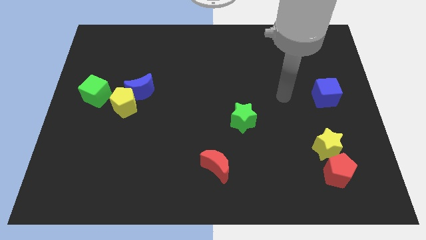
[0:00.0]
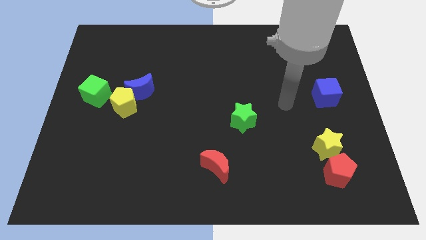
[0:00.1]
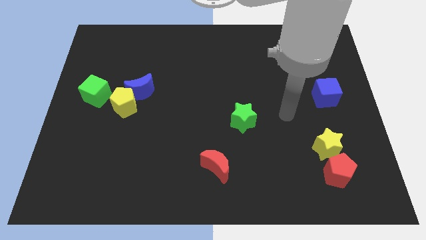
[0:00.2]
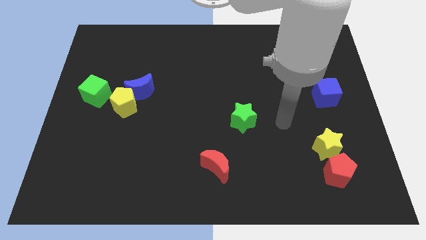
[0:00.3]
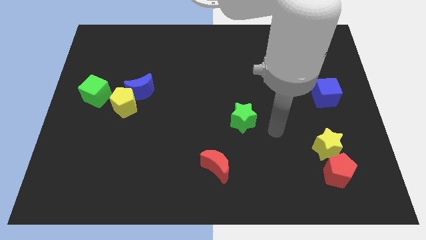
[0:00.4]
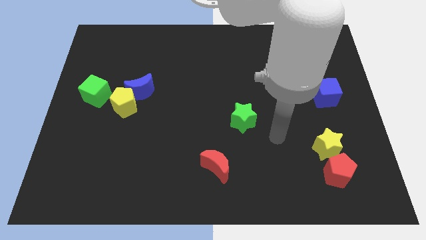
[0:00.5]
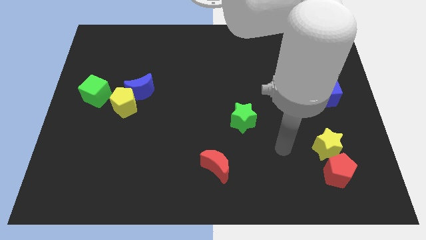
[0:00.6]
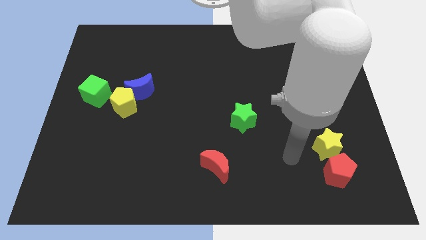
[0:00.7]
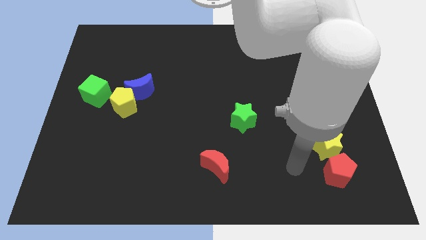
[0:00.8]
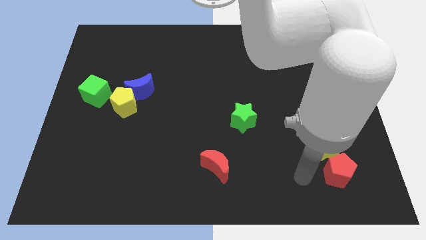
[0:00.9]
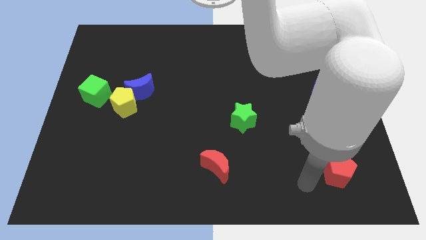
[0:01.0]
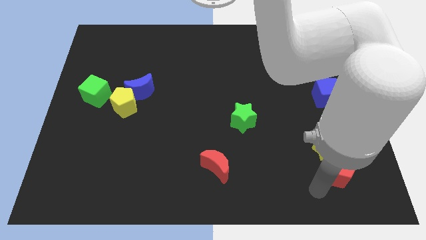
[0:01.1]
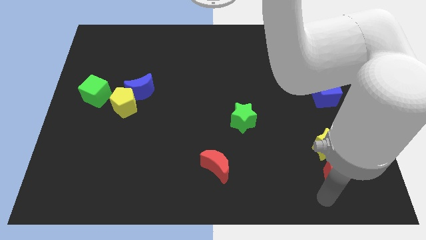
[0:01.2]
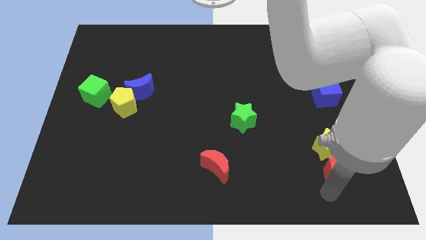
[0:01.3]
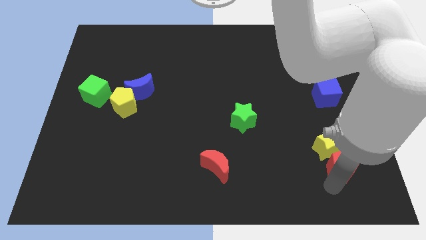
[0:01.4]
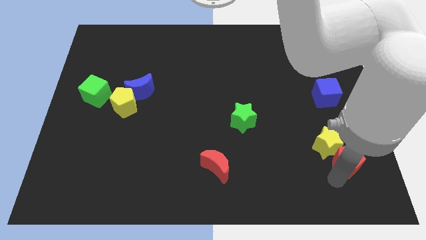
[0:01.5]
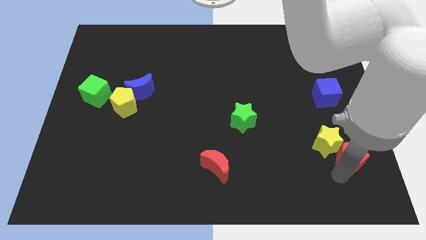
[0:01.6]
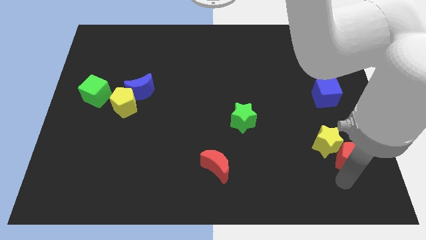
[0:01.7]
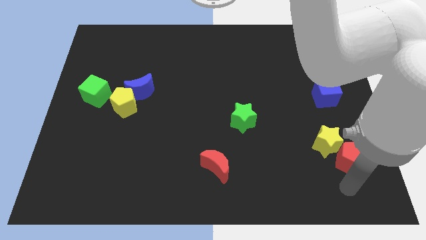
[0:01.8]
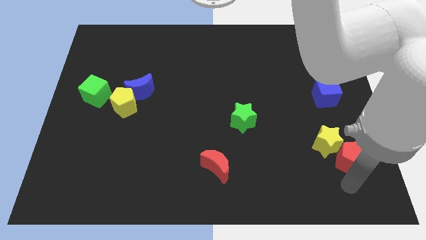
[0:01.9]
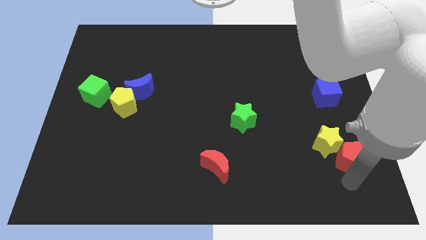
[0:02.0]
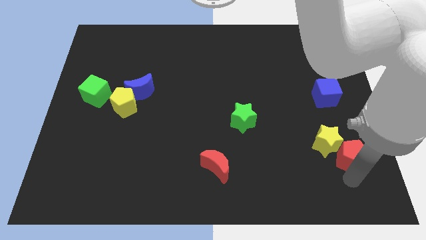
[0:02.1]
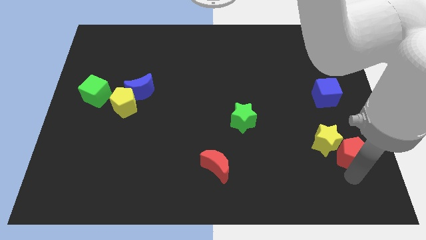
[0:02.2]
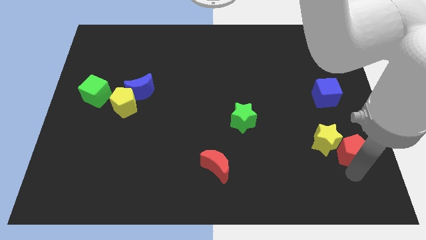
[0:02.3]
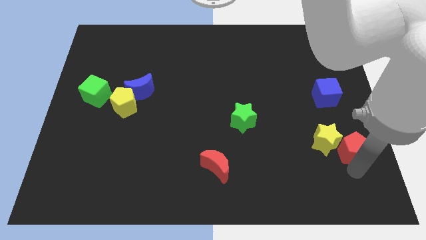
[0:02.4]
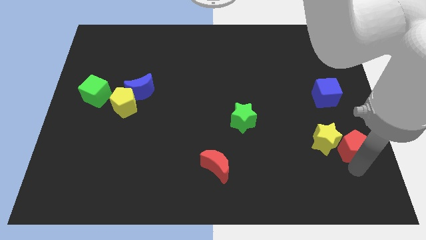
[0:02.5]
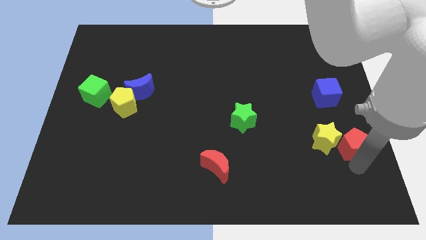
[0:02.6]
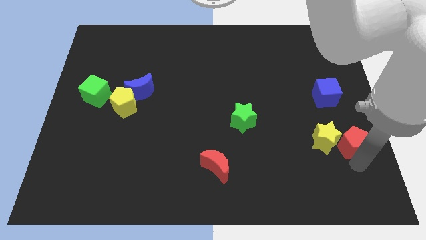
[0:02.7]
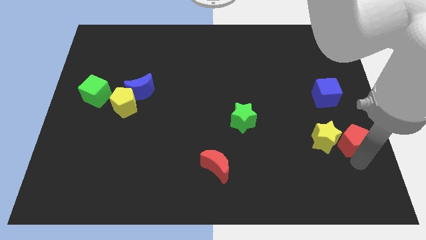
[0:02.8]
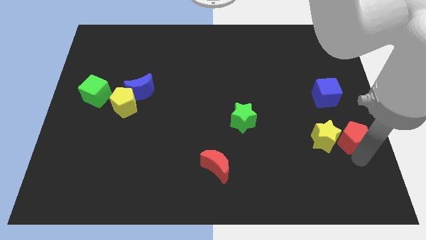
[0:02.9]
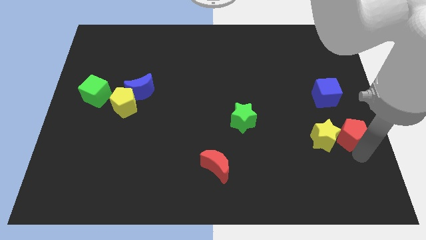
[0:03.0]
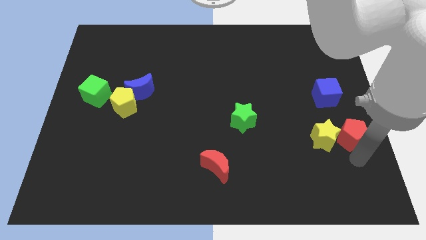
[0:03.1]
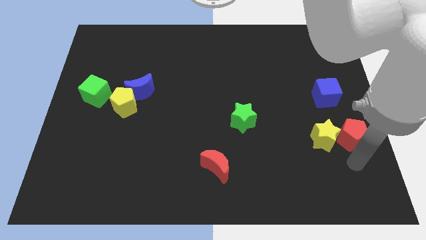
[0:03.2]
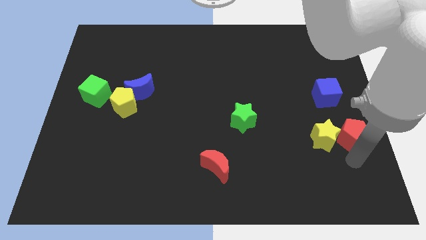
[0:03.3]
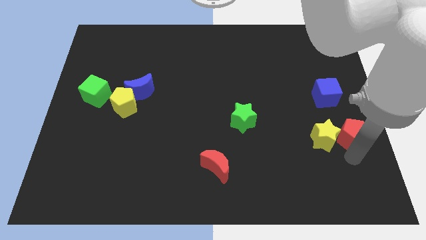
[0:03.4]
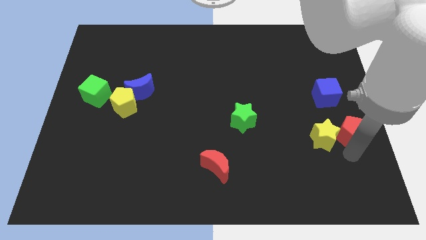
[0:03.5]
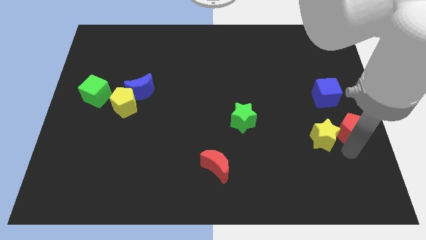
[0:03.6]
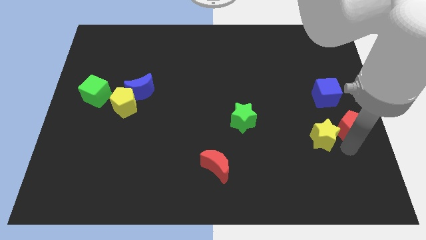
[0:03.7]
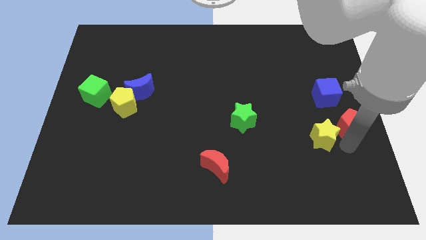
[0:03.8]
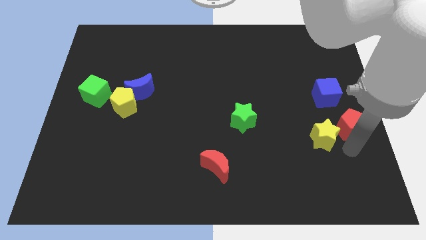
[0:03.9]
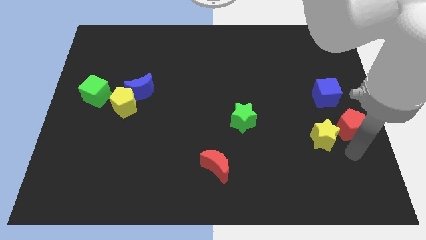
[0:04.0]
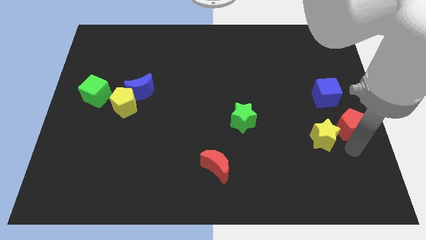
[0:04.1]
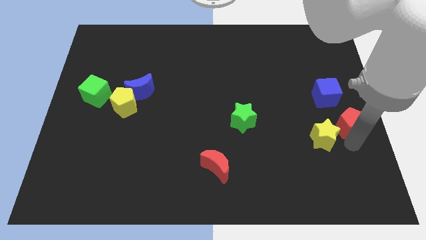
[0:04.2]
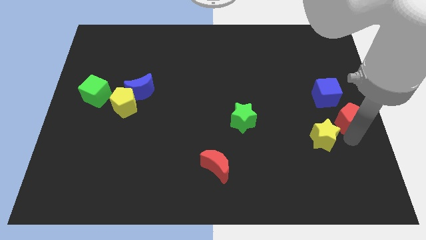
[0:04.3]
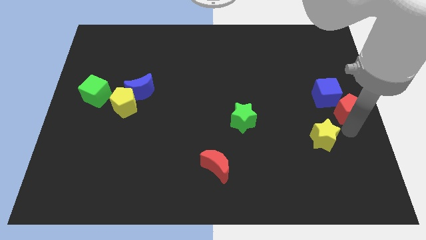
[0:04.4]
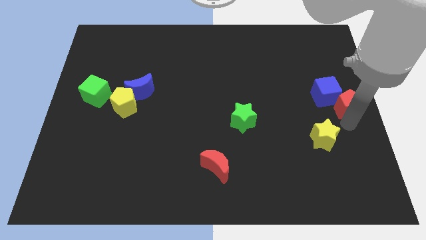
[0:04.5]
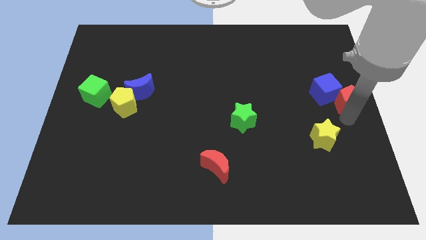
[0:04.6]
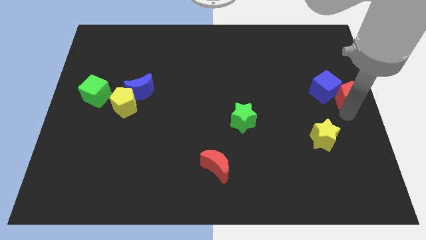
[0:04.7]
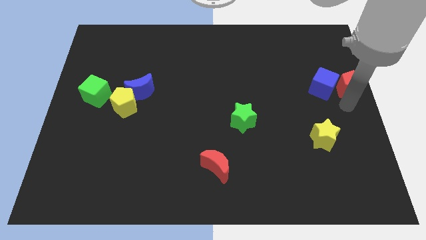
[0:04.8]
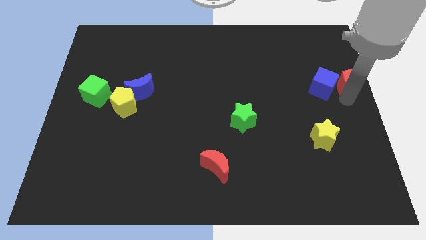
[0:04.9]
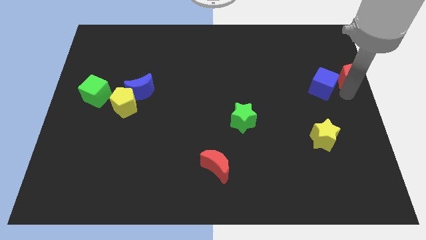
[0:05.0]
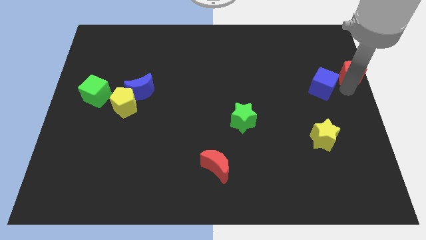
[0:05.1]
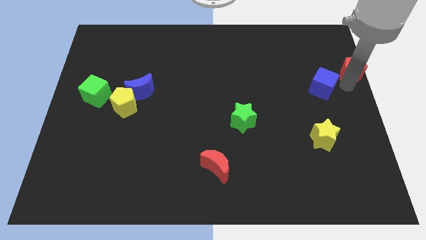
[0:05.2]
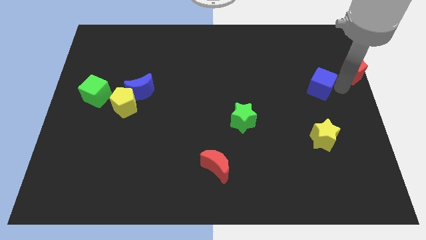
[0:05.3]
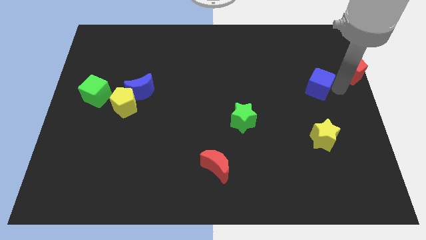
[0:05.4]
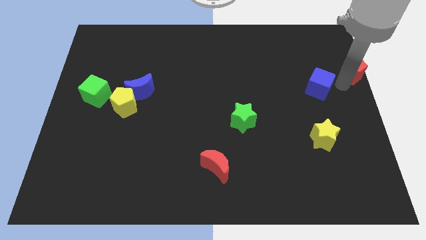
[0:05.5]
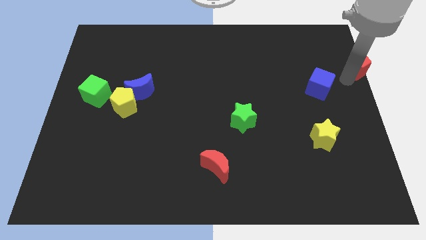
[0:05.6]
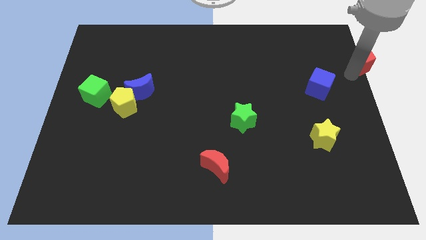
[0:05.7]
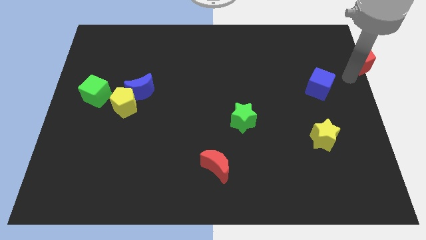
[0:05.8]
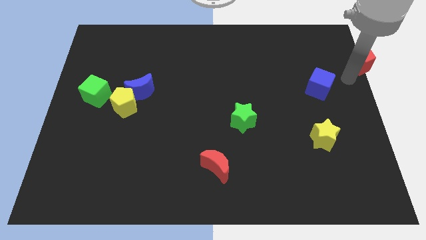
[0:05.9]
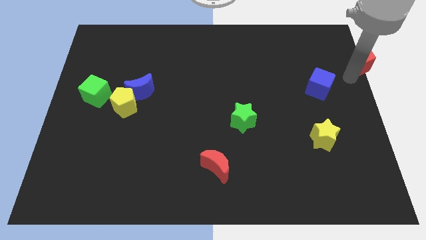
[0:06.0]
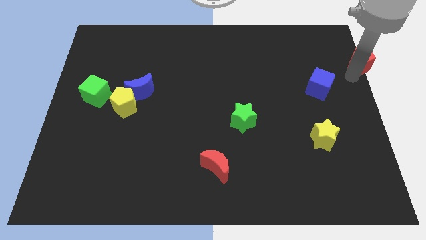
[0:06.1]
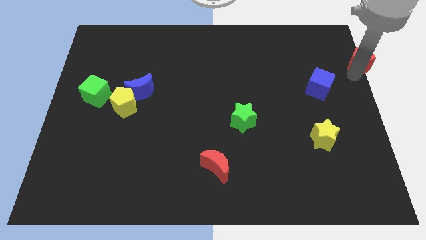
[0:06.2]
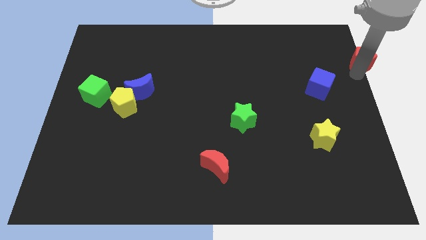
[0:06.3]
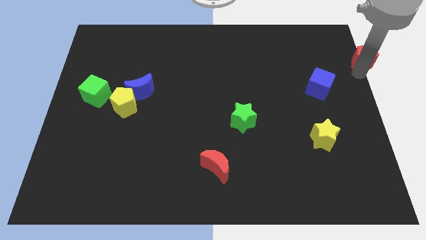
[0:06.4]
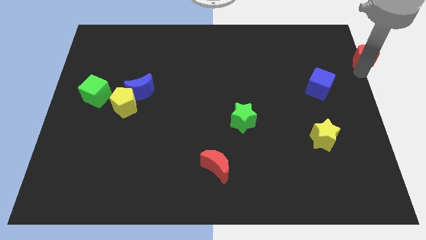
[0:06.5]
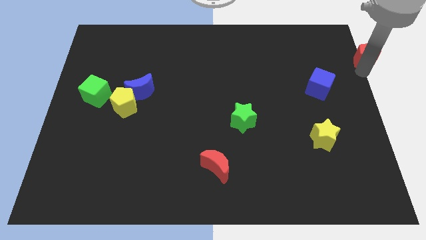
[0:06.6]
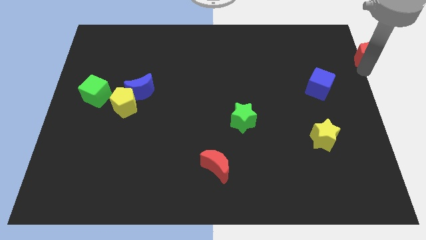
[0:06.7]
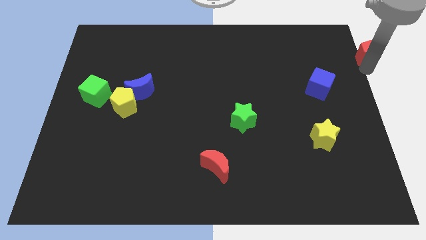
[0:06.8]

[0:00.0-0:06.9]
move the red pentagon to the top right
